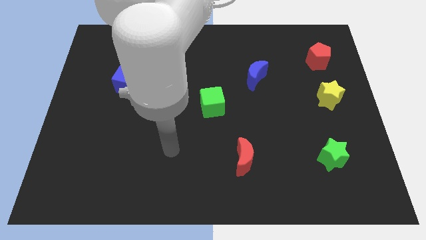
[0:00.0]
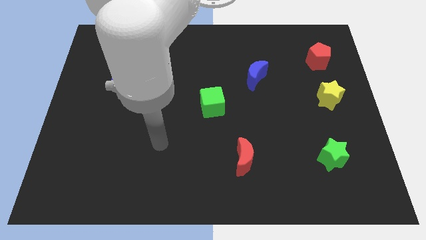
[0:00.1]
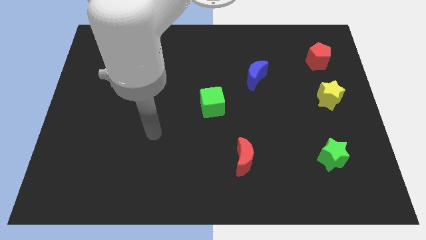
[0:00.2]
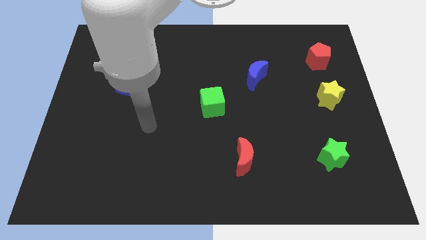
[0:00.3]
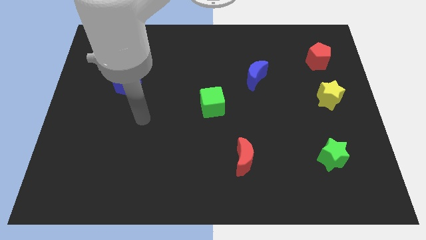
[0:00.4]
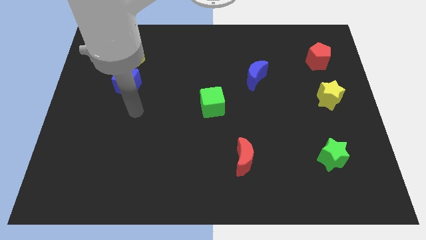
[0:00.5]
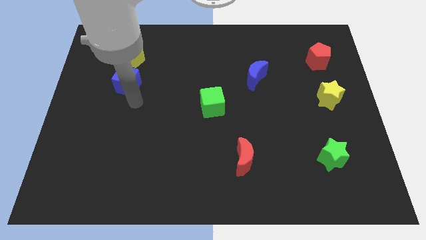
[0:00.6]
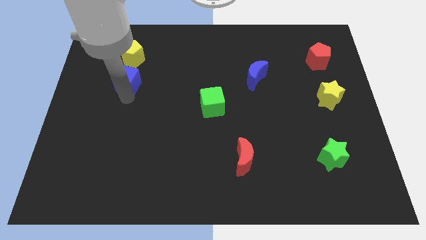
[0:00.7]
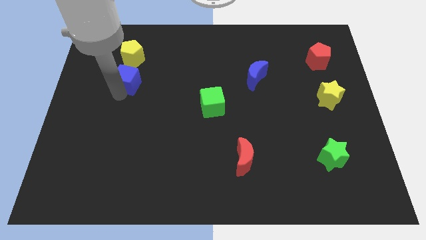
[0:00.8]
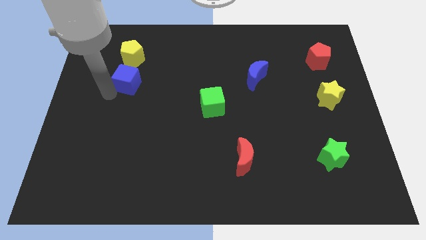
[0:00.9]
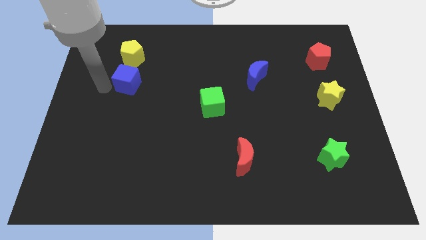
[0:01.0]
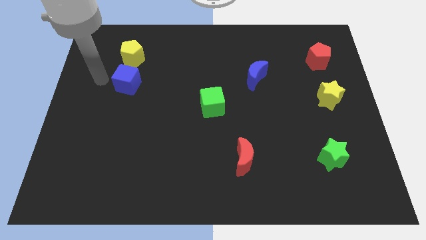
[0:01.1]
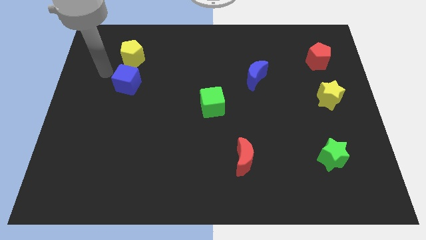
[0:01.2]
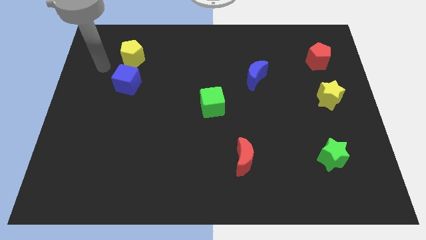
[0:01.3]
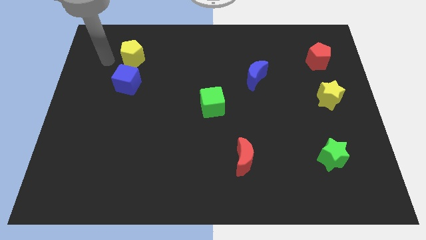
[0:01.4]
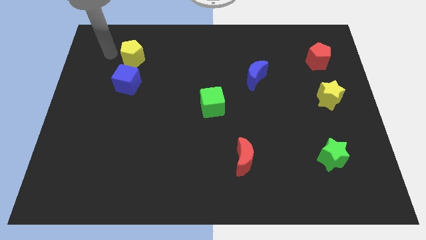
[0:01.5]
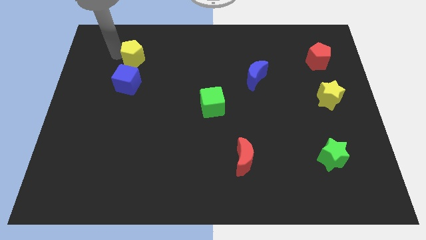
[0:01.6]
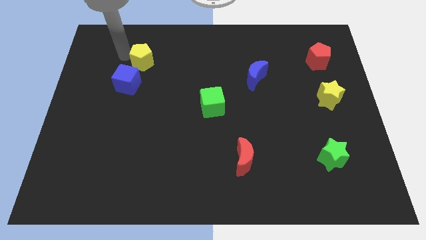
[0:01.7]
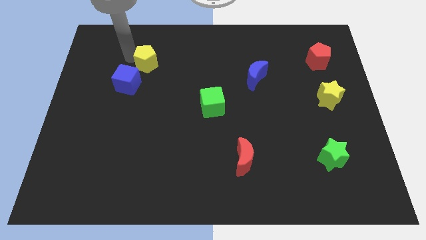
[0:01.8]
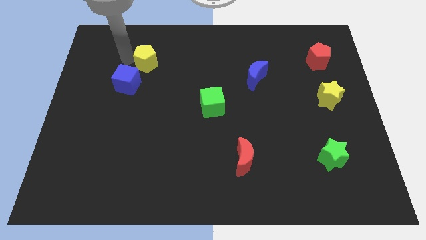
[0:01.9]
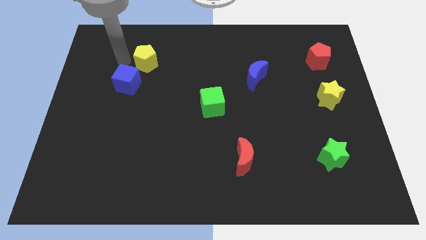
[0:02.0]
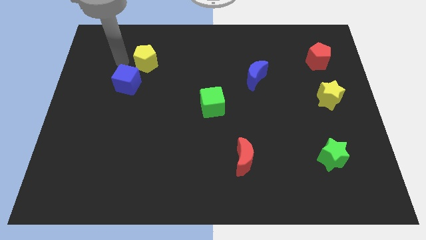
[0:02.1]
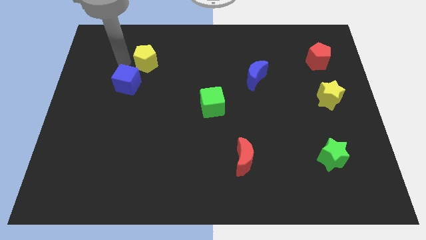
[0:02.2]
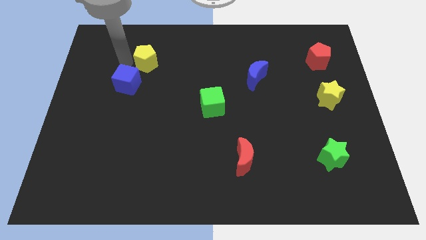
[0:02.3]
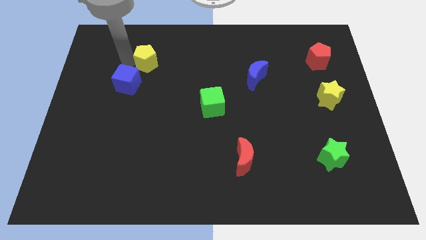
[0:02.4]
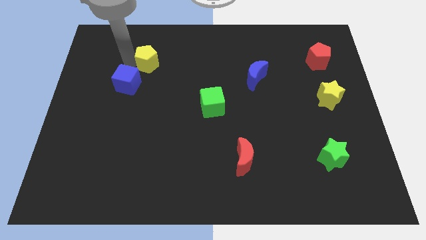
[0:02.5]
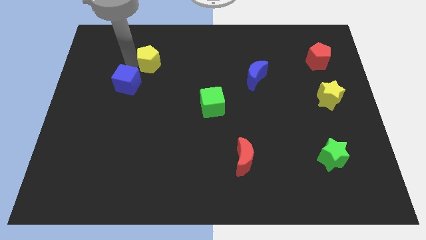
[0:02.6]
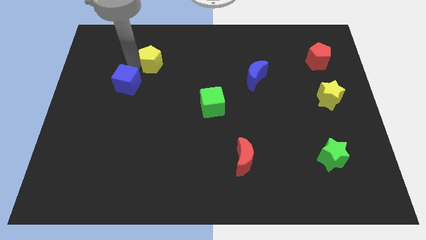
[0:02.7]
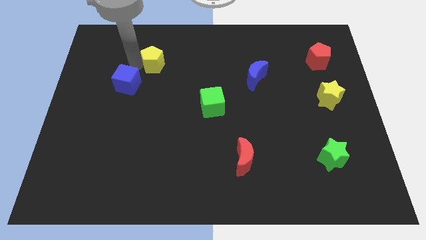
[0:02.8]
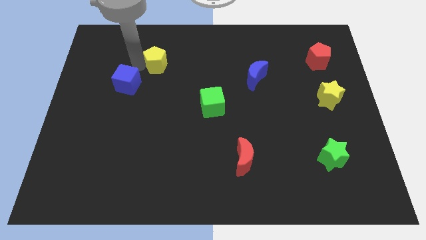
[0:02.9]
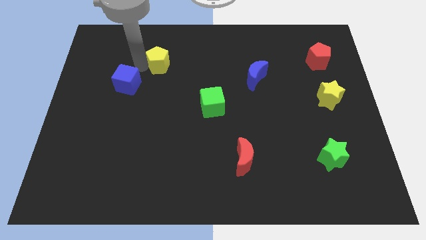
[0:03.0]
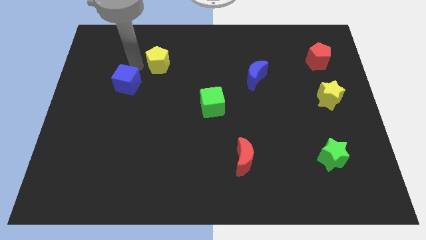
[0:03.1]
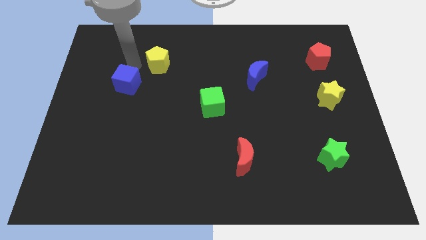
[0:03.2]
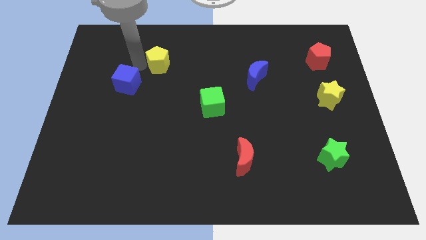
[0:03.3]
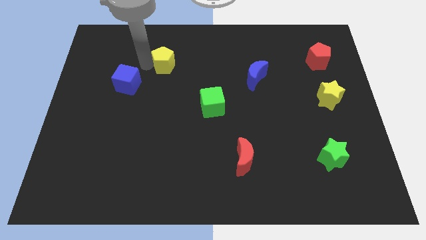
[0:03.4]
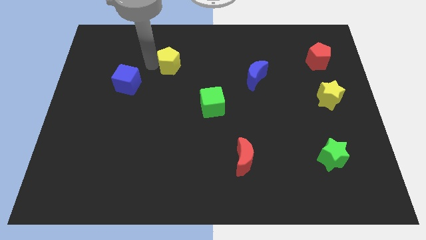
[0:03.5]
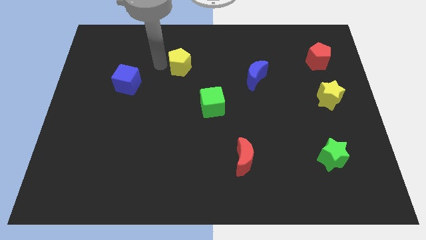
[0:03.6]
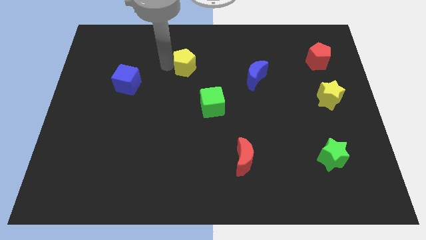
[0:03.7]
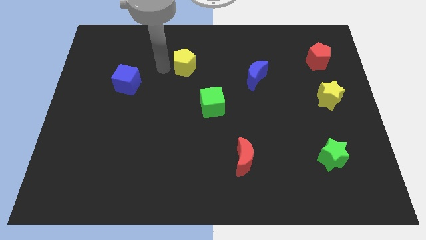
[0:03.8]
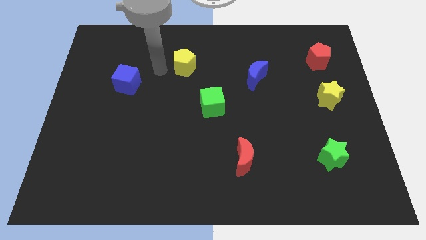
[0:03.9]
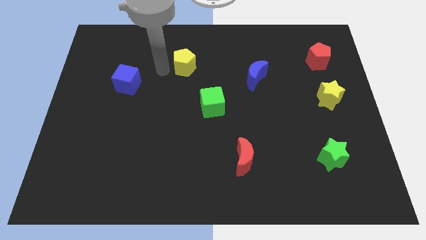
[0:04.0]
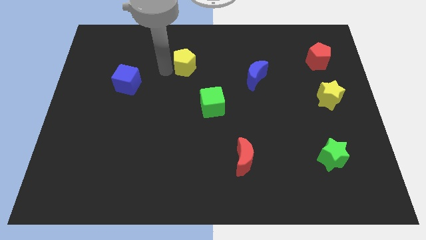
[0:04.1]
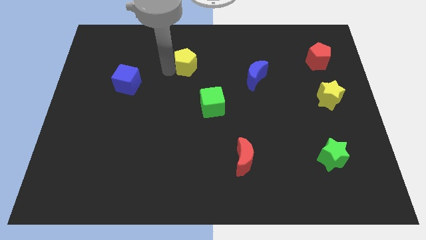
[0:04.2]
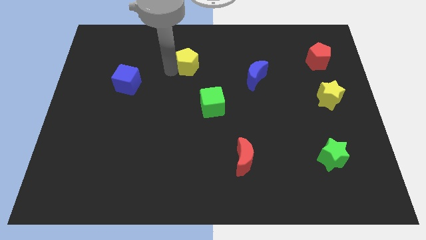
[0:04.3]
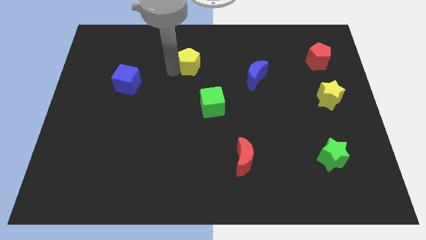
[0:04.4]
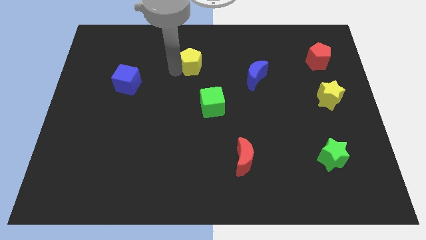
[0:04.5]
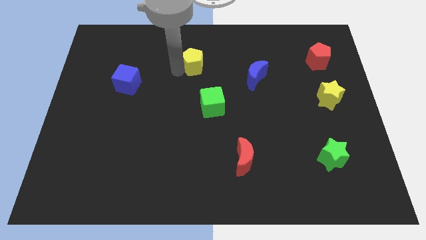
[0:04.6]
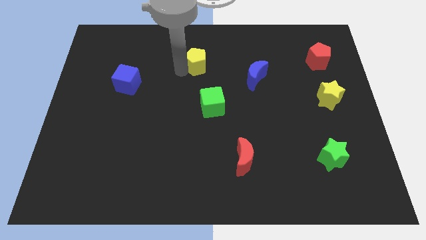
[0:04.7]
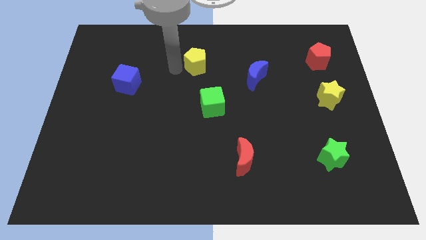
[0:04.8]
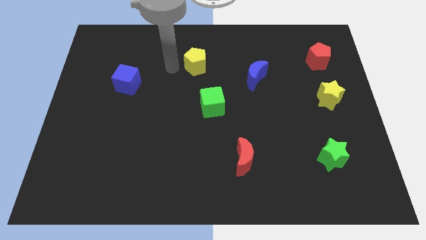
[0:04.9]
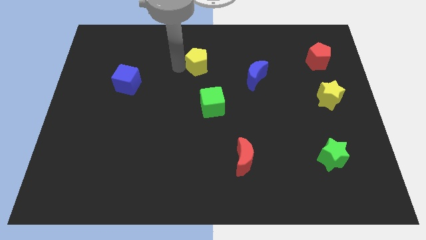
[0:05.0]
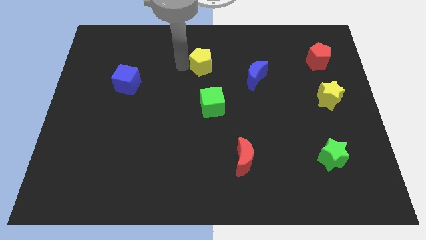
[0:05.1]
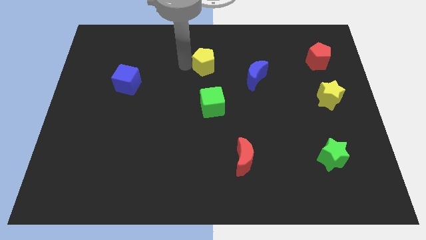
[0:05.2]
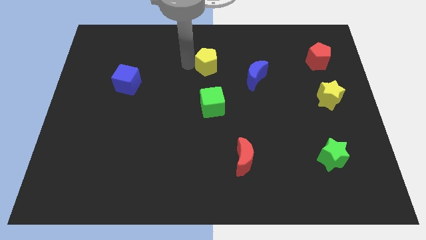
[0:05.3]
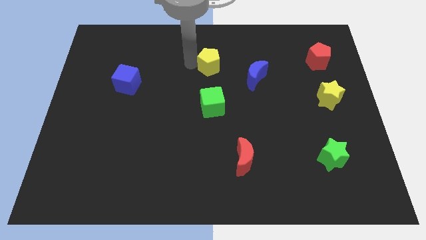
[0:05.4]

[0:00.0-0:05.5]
slide the yellow pentagon right

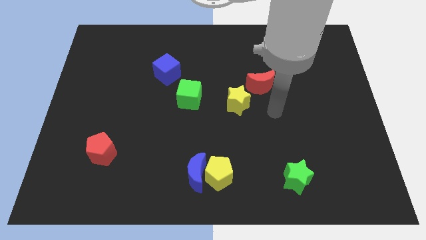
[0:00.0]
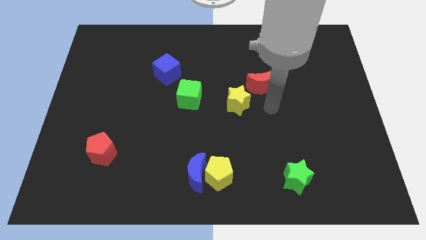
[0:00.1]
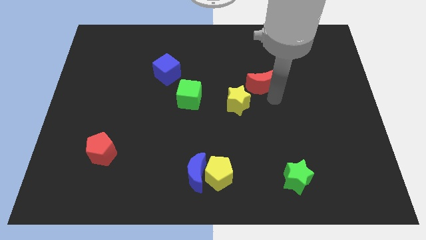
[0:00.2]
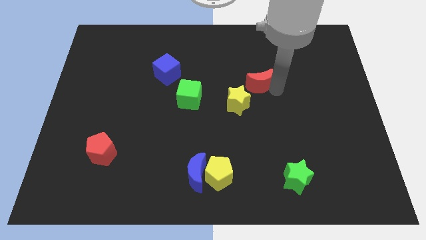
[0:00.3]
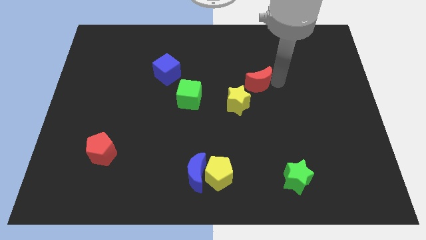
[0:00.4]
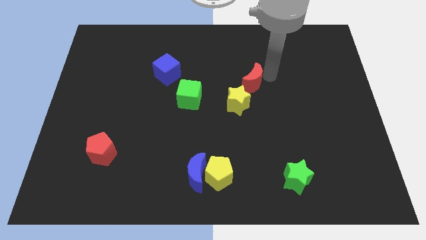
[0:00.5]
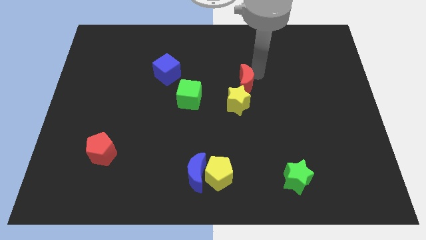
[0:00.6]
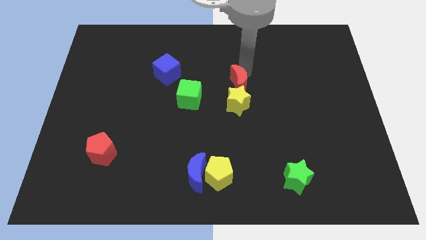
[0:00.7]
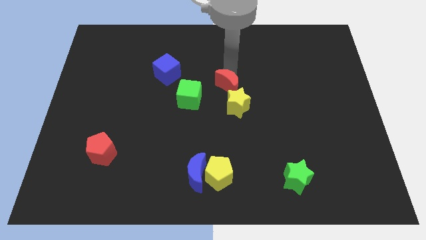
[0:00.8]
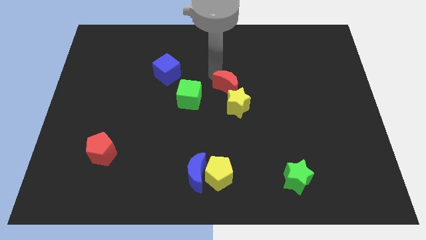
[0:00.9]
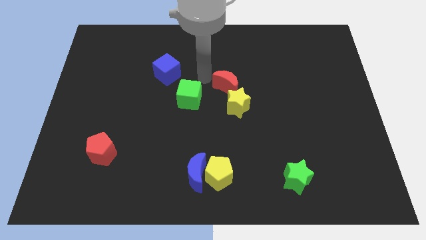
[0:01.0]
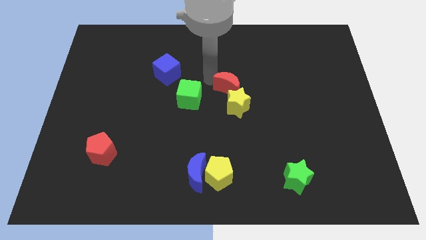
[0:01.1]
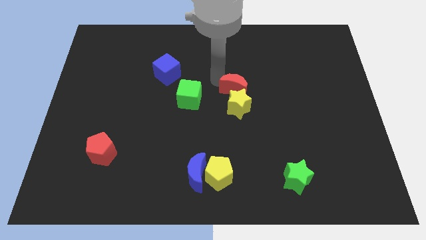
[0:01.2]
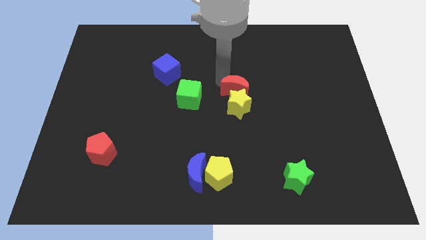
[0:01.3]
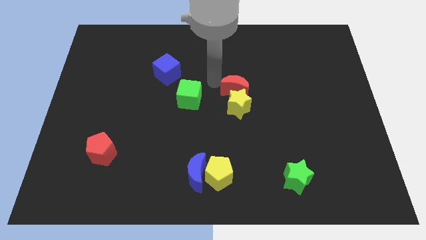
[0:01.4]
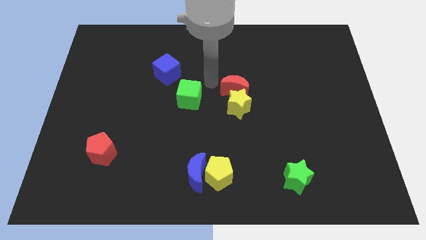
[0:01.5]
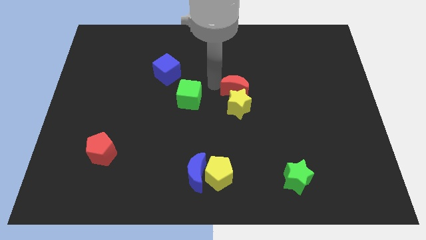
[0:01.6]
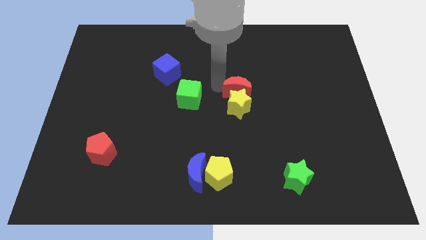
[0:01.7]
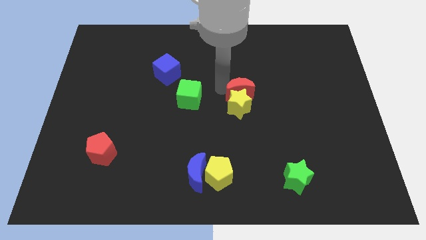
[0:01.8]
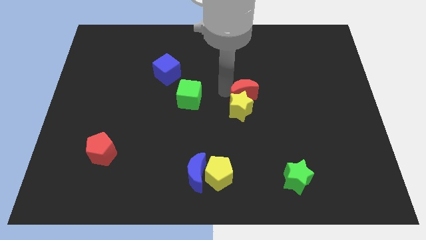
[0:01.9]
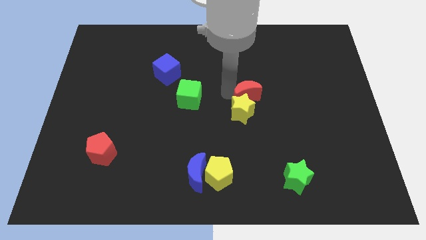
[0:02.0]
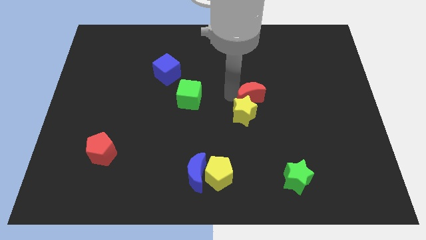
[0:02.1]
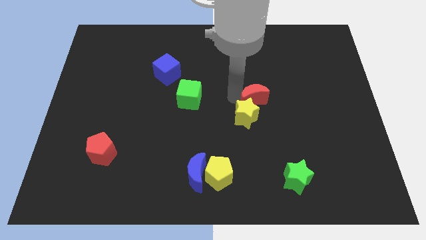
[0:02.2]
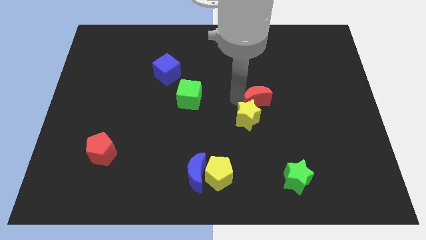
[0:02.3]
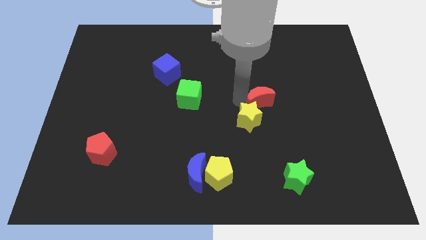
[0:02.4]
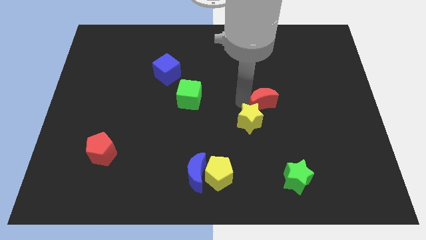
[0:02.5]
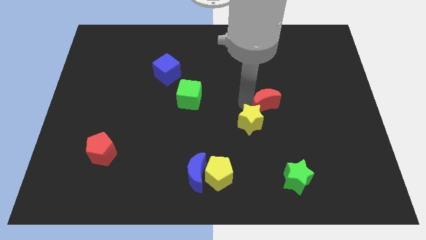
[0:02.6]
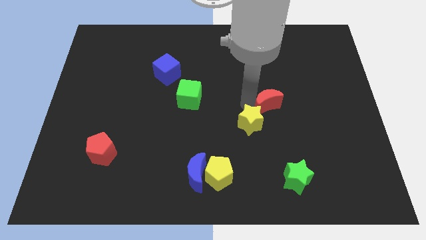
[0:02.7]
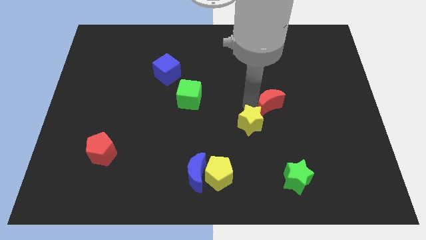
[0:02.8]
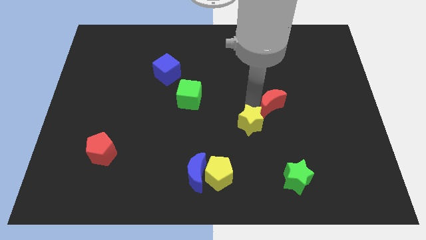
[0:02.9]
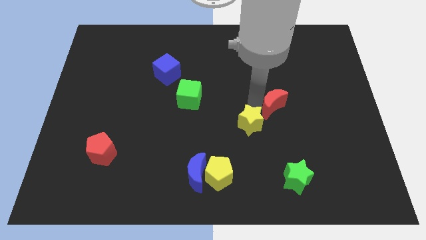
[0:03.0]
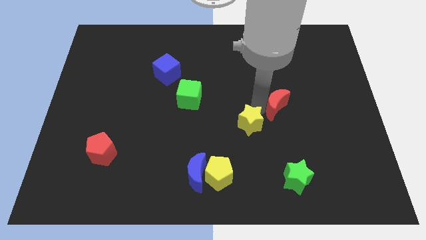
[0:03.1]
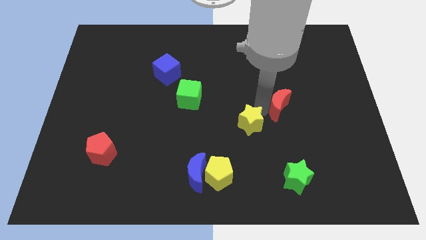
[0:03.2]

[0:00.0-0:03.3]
move the red moon downwards and right diagonally a little bit
